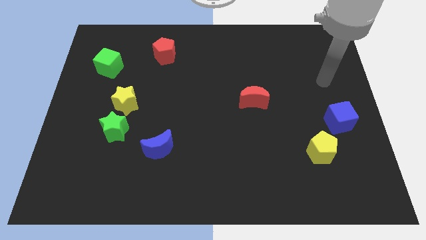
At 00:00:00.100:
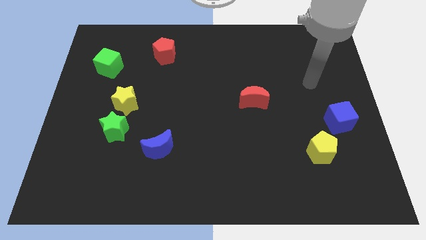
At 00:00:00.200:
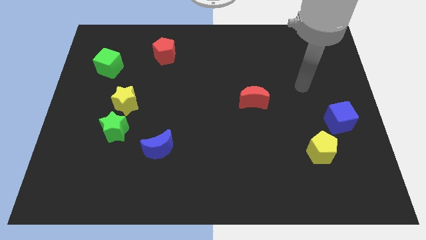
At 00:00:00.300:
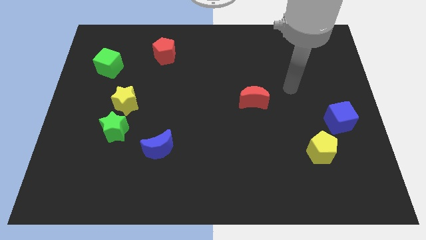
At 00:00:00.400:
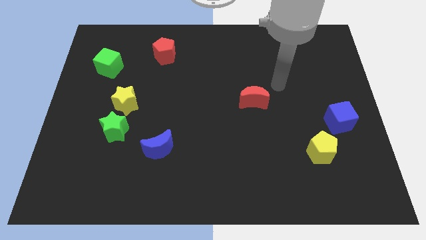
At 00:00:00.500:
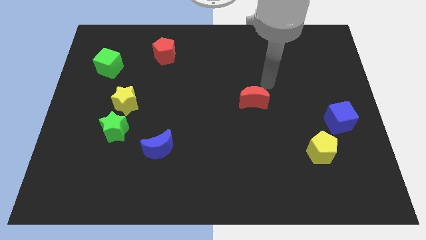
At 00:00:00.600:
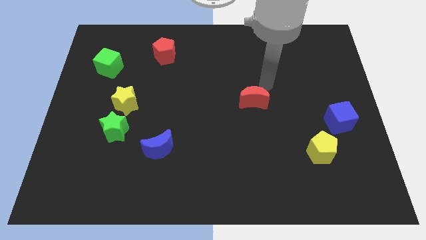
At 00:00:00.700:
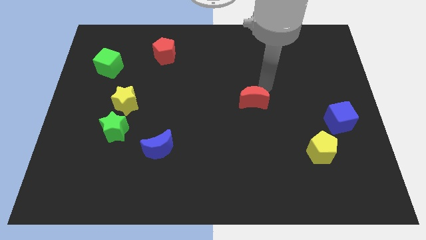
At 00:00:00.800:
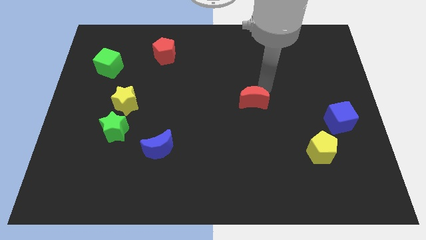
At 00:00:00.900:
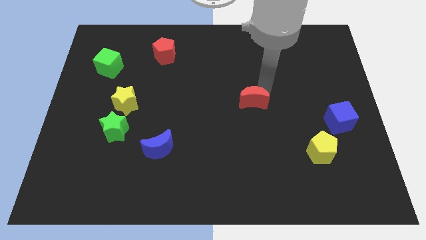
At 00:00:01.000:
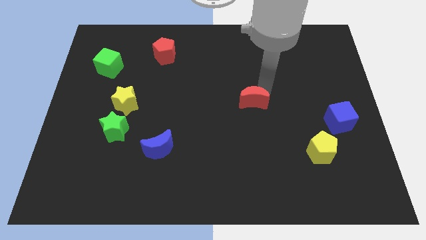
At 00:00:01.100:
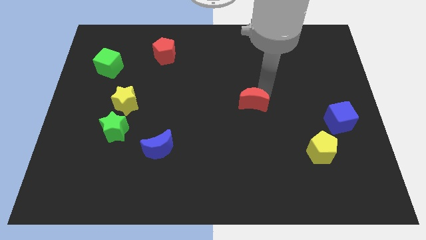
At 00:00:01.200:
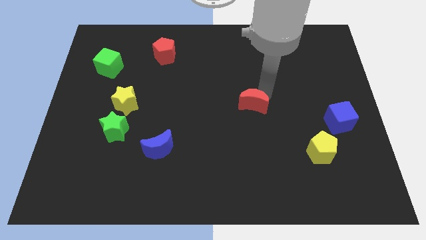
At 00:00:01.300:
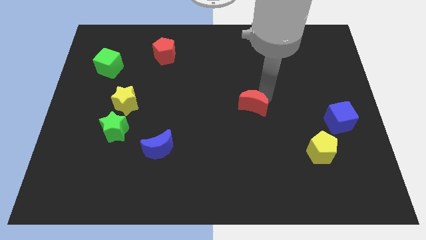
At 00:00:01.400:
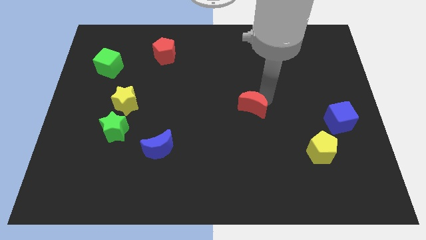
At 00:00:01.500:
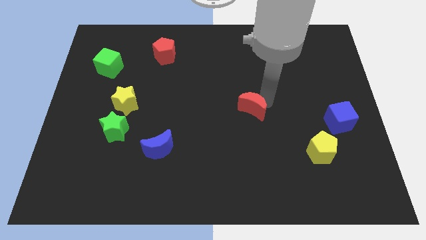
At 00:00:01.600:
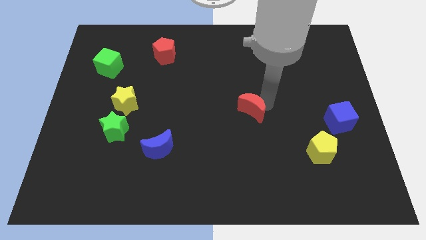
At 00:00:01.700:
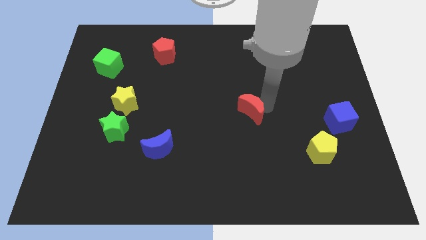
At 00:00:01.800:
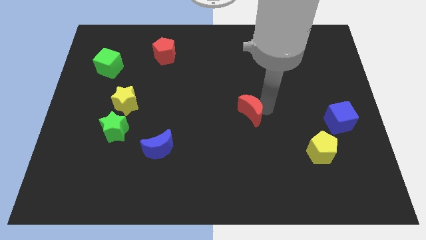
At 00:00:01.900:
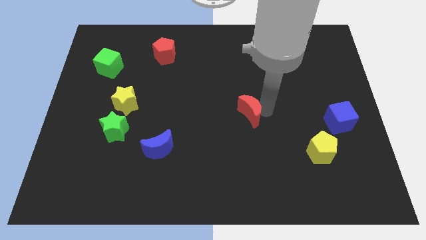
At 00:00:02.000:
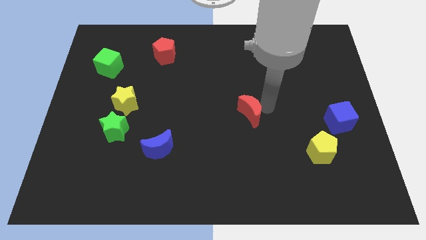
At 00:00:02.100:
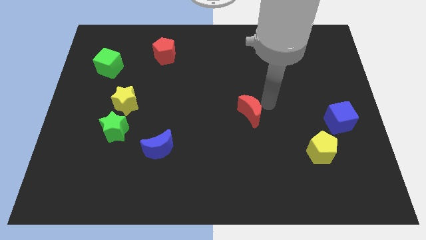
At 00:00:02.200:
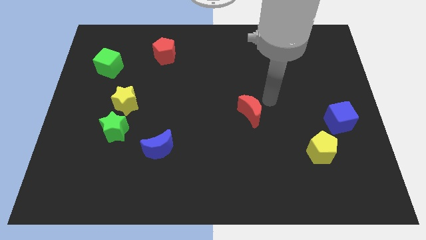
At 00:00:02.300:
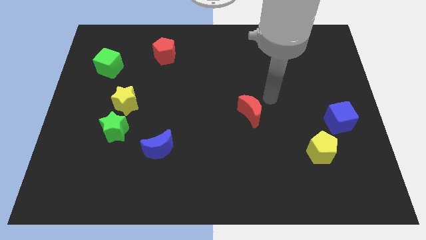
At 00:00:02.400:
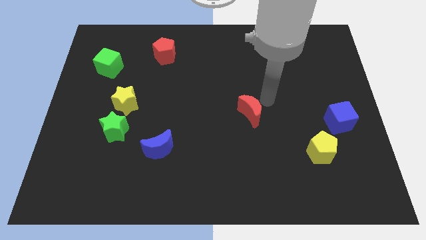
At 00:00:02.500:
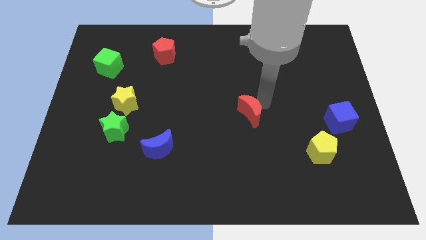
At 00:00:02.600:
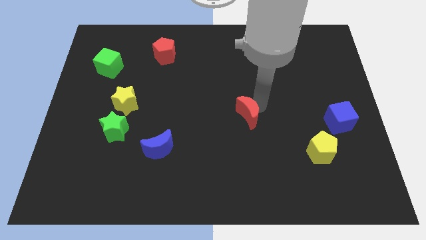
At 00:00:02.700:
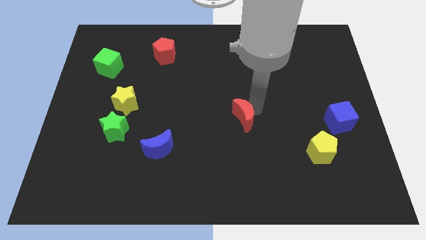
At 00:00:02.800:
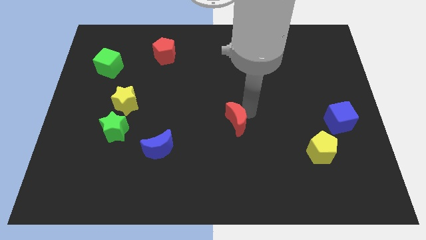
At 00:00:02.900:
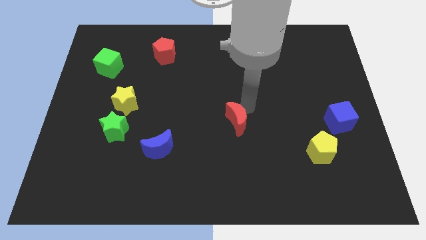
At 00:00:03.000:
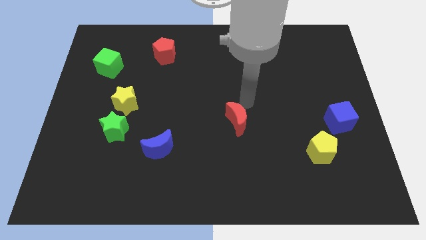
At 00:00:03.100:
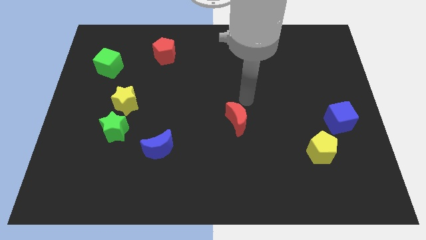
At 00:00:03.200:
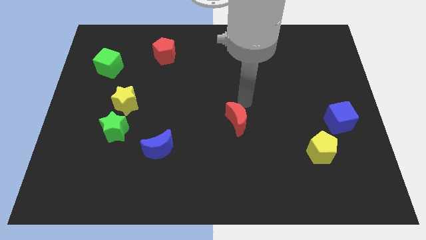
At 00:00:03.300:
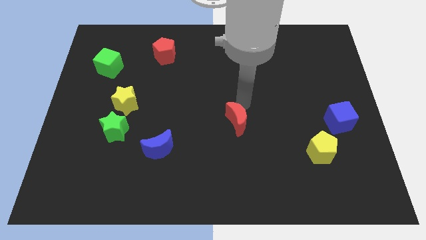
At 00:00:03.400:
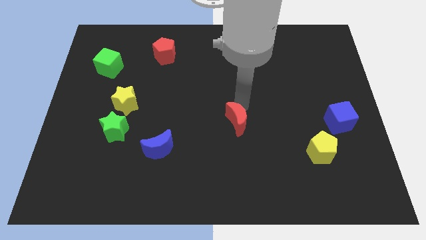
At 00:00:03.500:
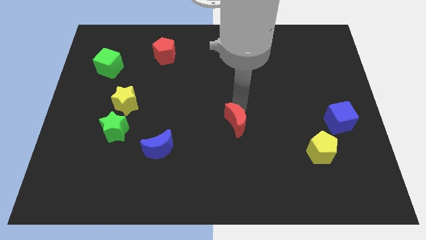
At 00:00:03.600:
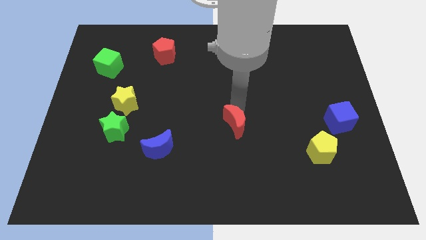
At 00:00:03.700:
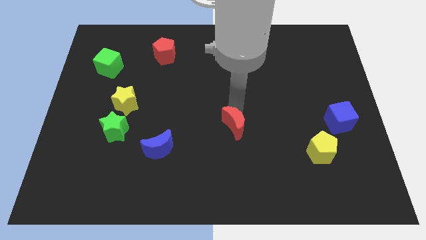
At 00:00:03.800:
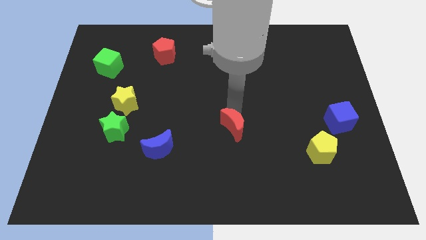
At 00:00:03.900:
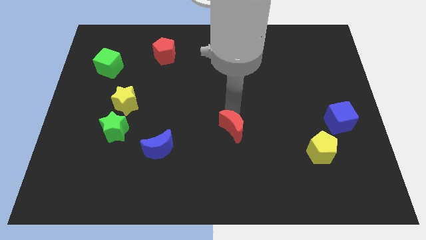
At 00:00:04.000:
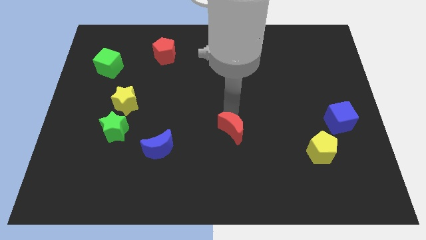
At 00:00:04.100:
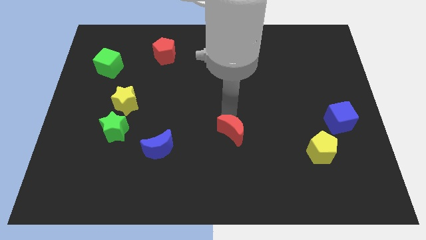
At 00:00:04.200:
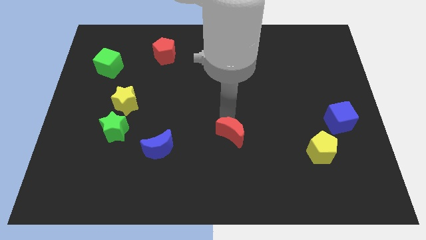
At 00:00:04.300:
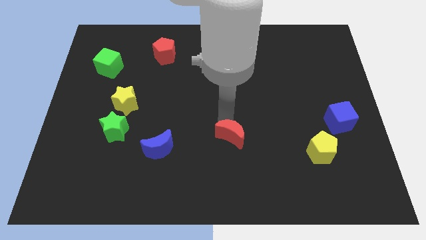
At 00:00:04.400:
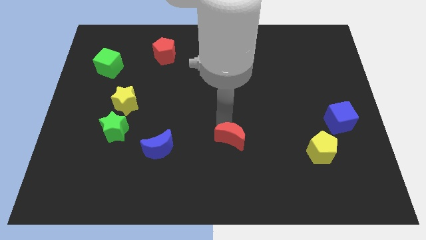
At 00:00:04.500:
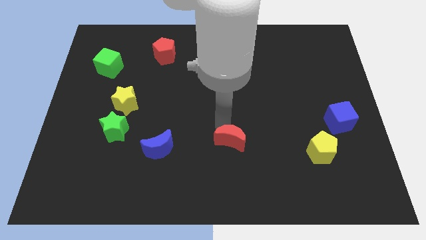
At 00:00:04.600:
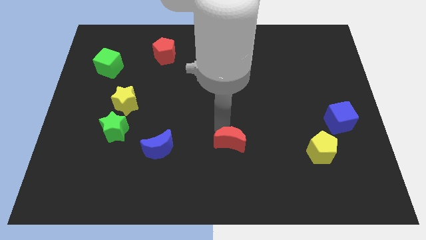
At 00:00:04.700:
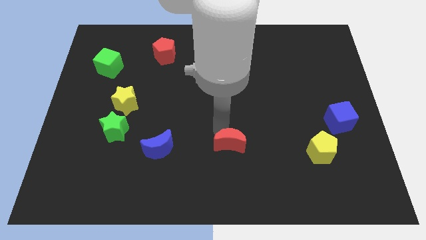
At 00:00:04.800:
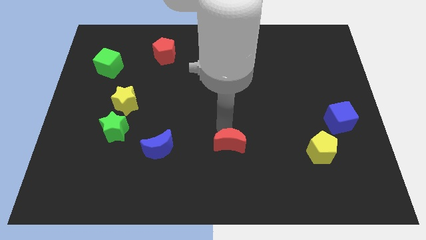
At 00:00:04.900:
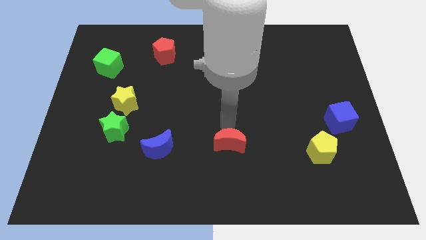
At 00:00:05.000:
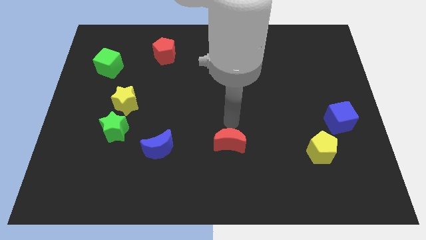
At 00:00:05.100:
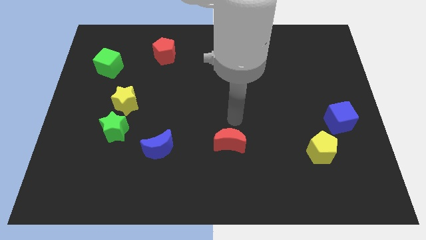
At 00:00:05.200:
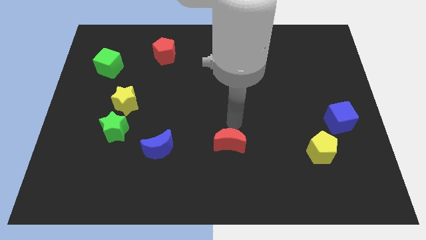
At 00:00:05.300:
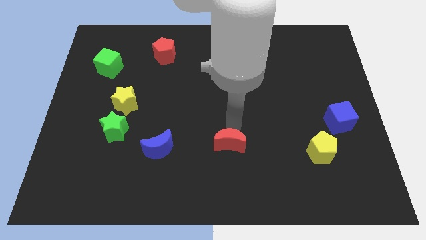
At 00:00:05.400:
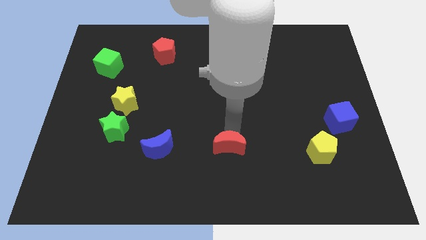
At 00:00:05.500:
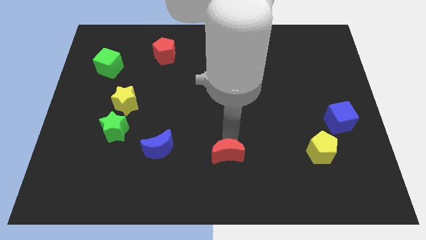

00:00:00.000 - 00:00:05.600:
slide the red moon to the bottom side

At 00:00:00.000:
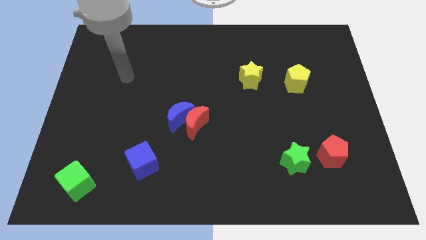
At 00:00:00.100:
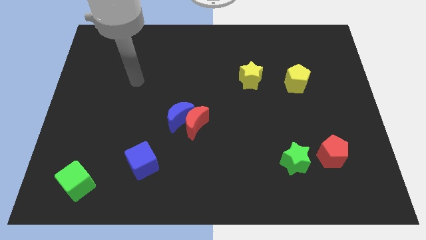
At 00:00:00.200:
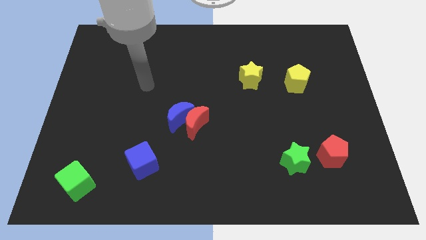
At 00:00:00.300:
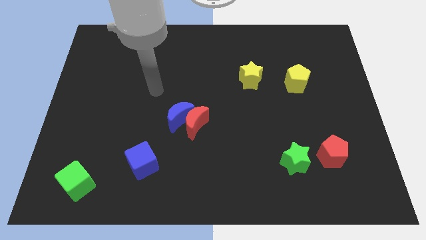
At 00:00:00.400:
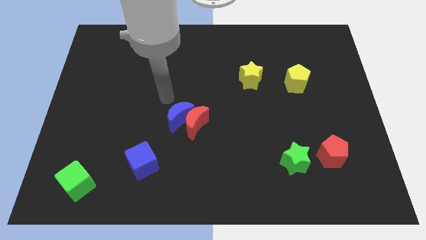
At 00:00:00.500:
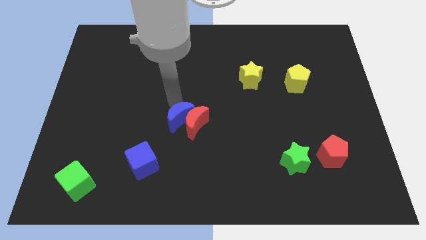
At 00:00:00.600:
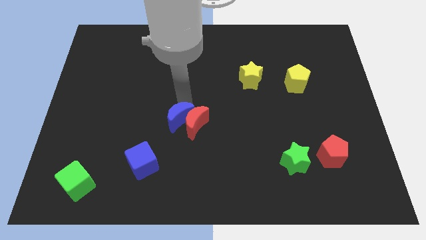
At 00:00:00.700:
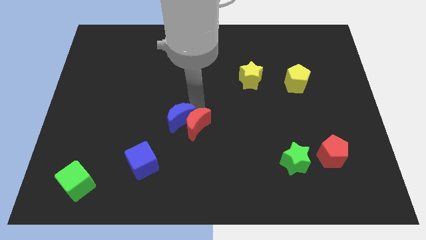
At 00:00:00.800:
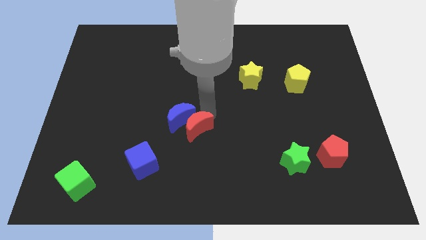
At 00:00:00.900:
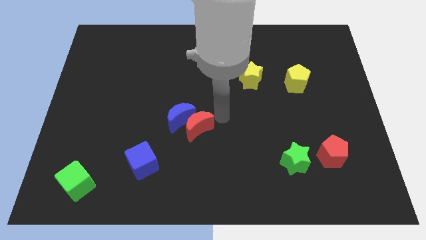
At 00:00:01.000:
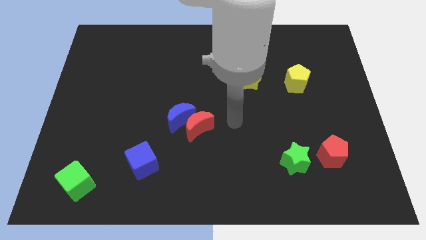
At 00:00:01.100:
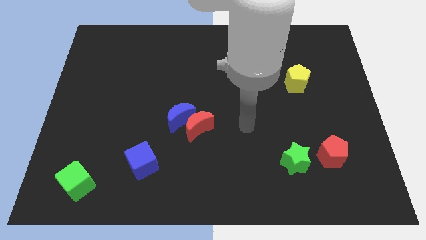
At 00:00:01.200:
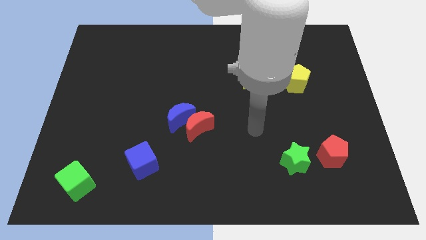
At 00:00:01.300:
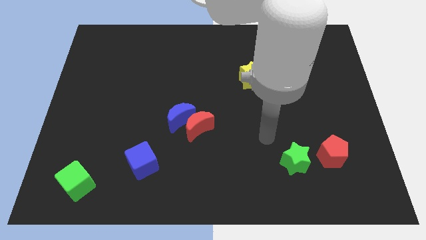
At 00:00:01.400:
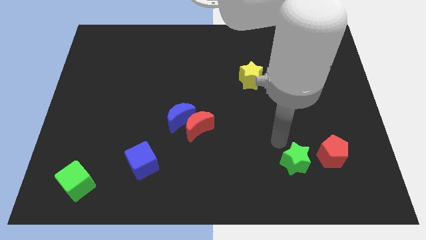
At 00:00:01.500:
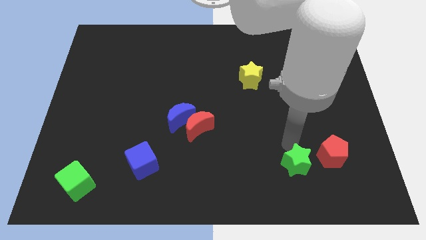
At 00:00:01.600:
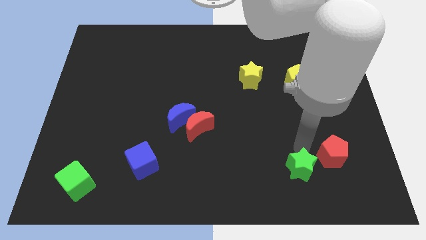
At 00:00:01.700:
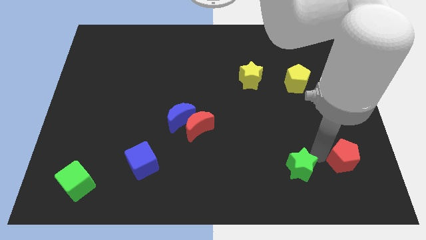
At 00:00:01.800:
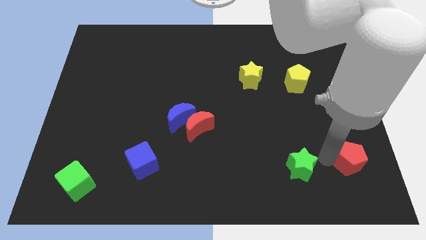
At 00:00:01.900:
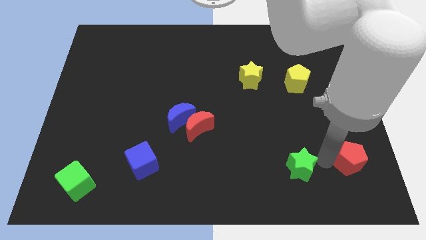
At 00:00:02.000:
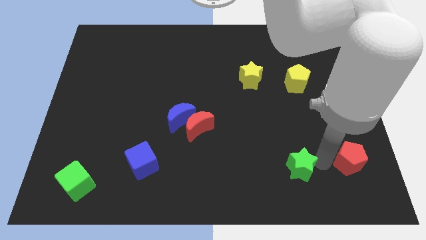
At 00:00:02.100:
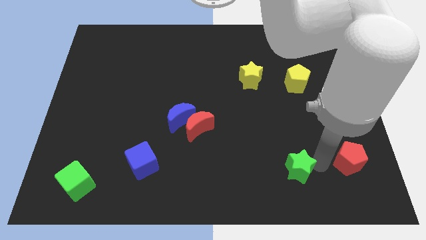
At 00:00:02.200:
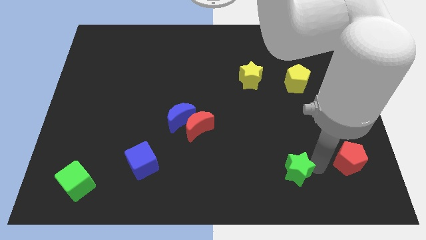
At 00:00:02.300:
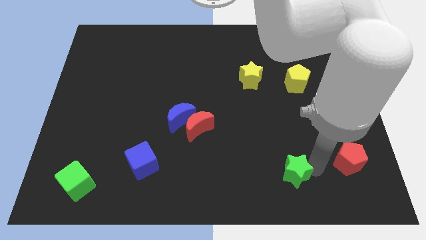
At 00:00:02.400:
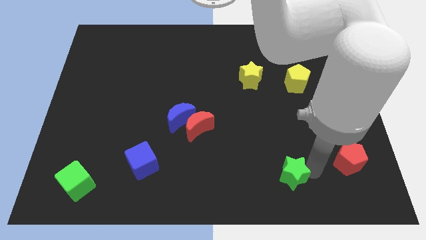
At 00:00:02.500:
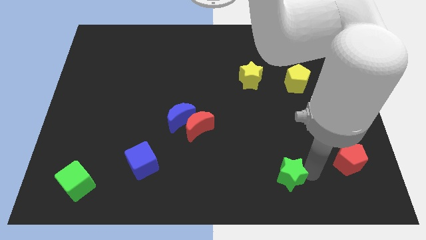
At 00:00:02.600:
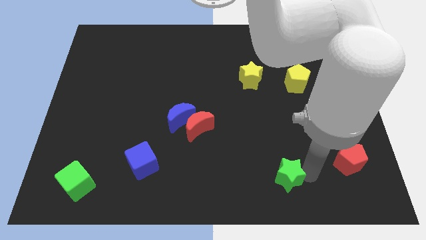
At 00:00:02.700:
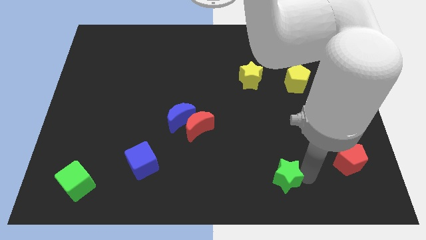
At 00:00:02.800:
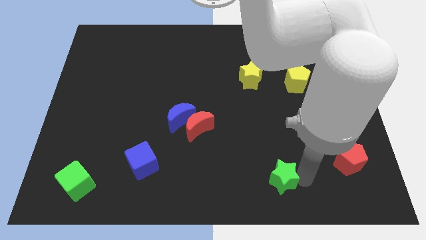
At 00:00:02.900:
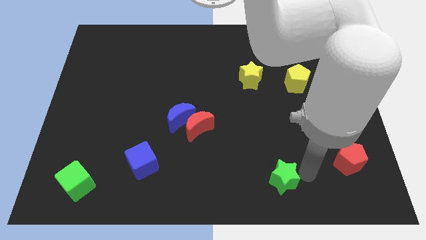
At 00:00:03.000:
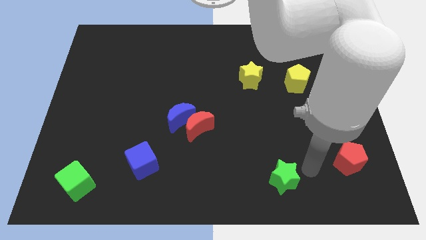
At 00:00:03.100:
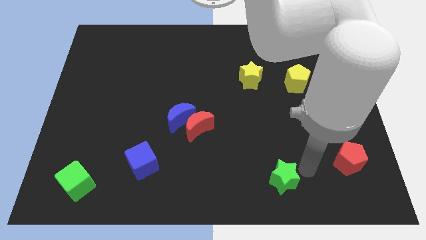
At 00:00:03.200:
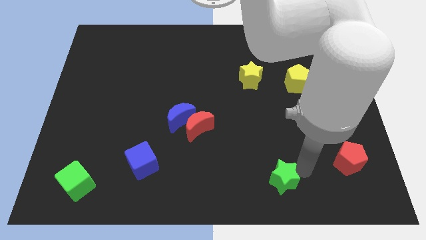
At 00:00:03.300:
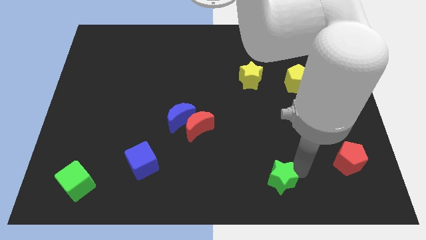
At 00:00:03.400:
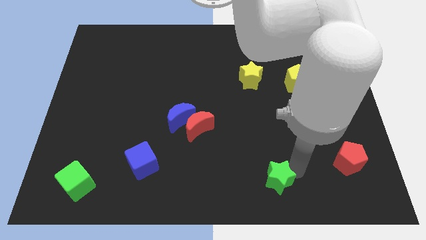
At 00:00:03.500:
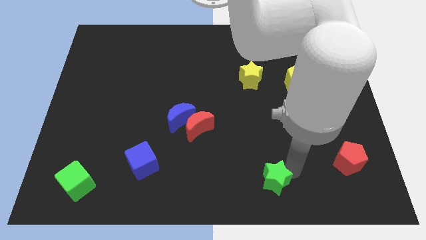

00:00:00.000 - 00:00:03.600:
move the green star to the bottom side
